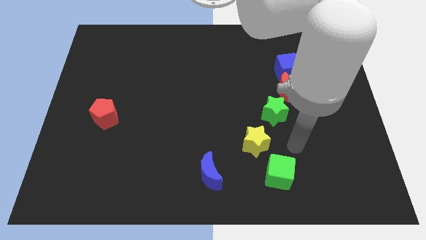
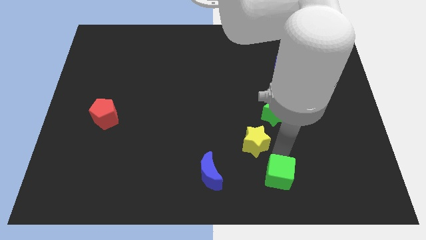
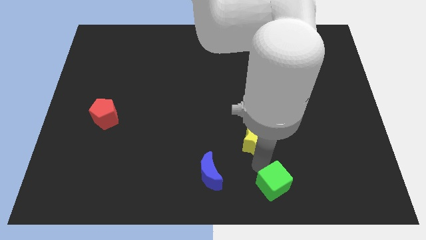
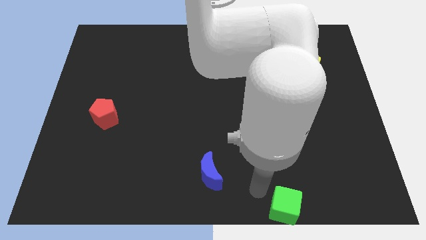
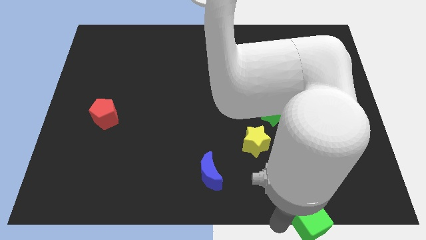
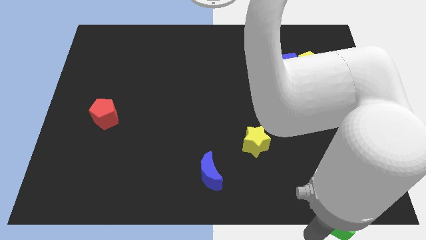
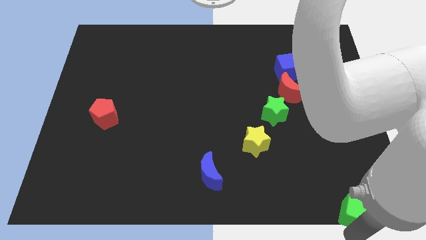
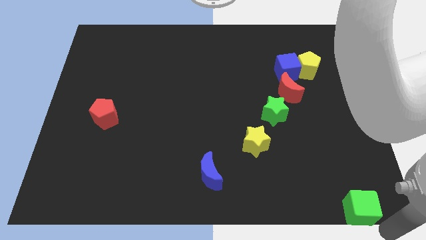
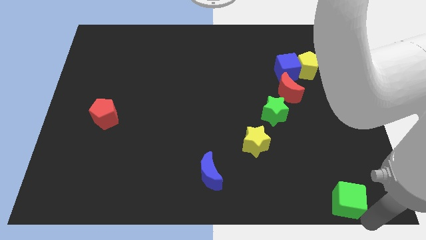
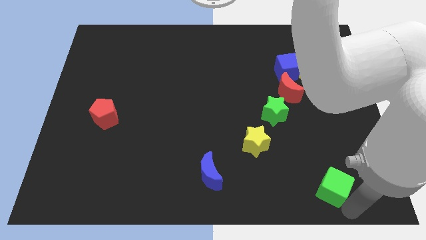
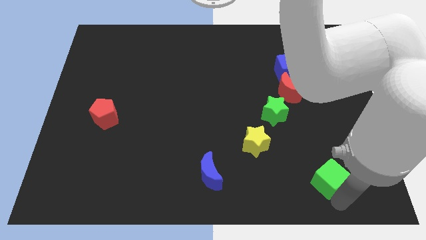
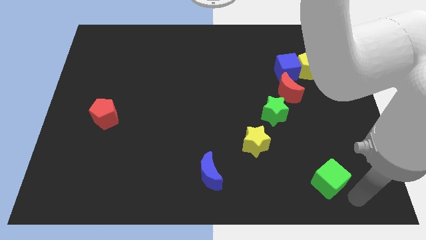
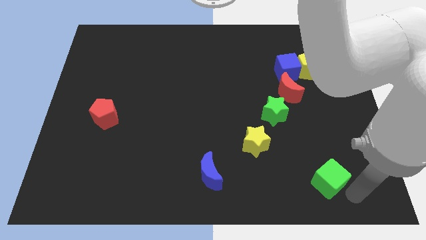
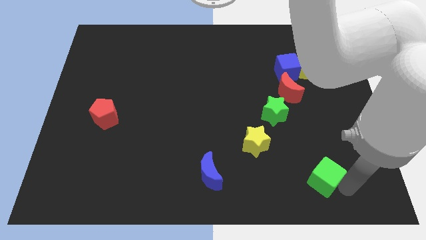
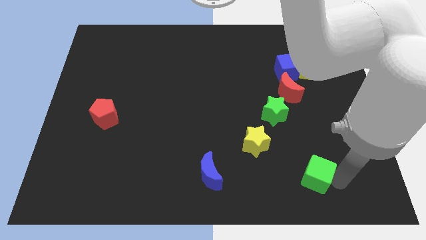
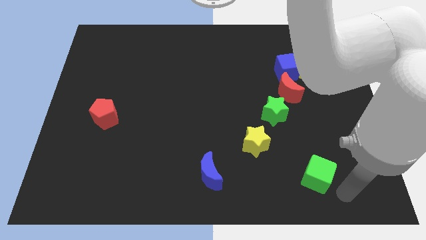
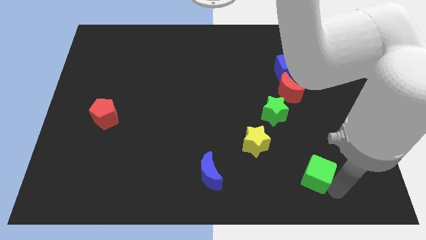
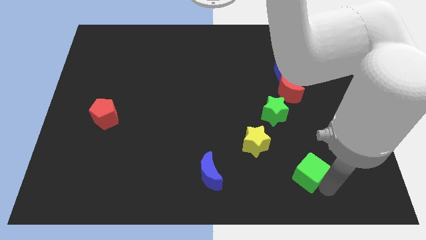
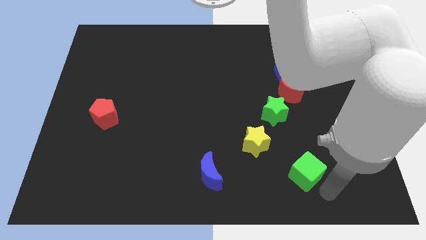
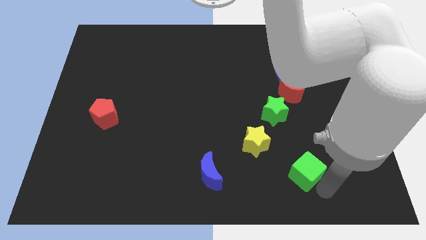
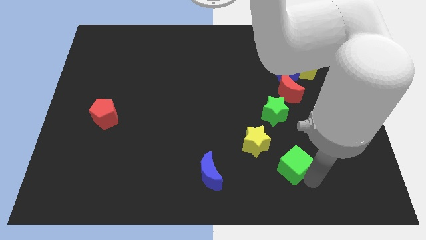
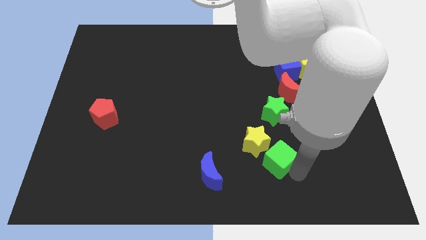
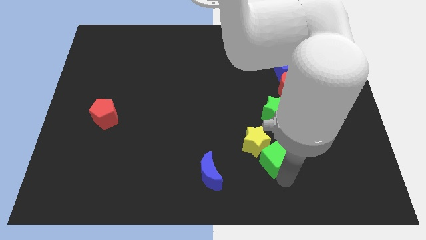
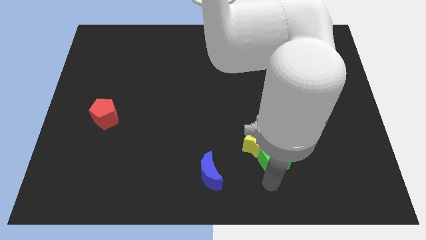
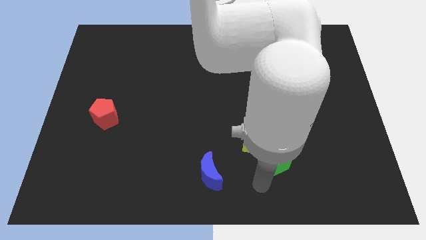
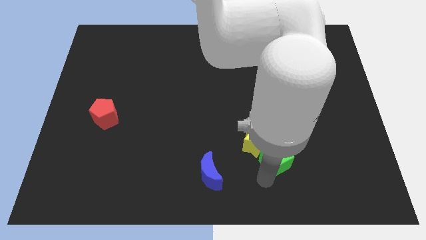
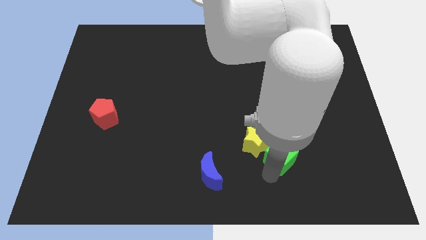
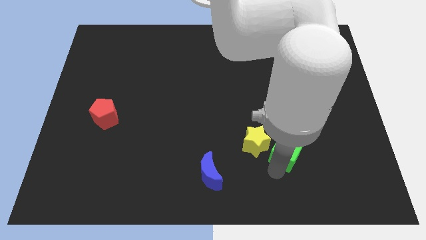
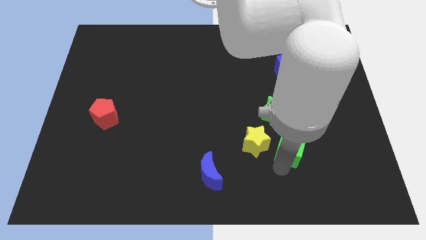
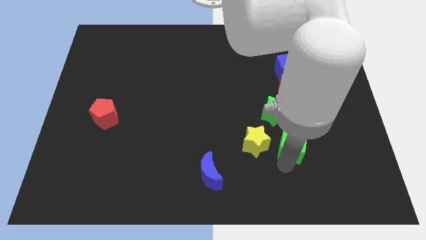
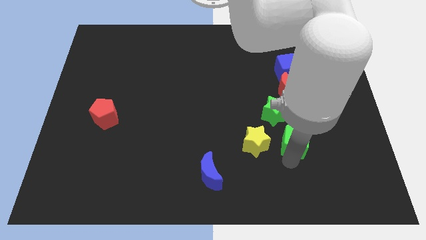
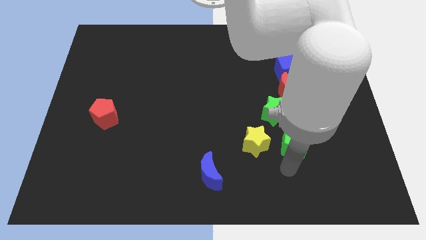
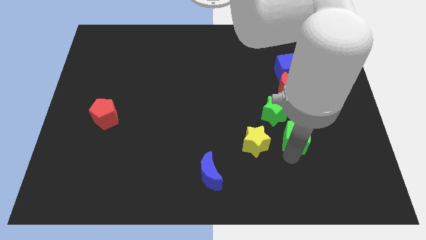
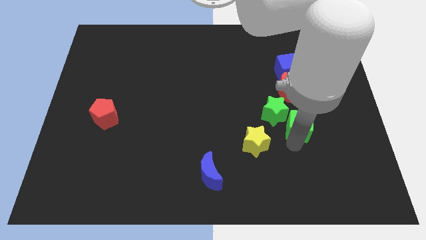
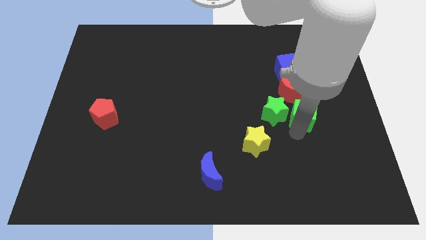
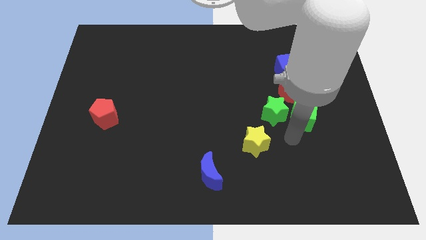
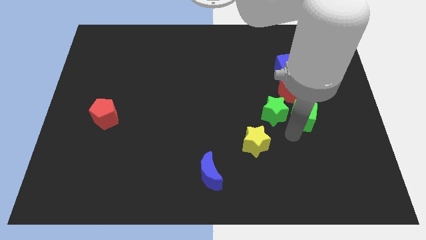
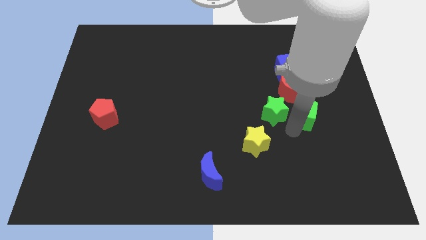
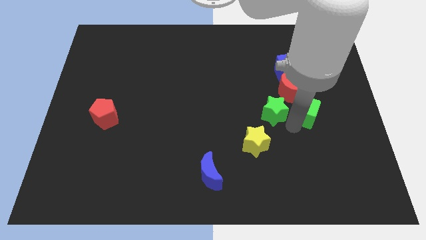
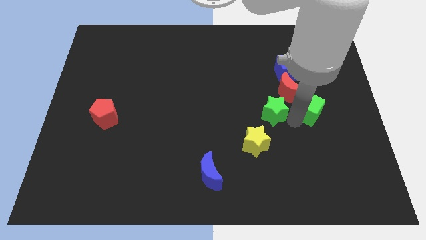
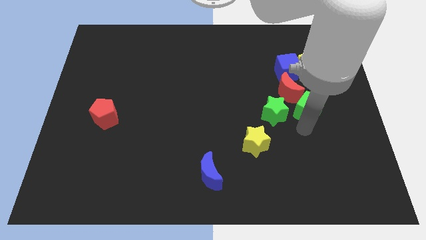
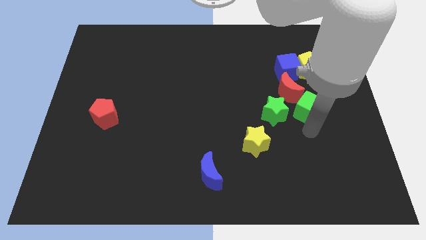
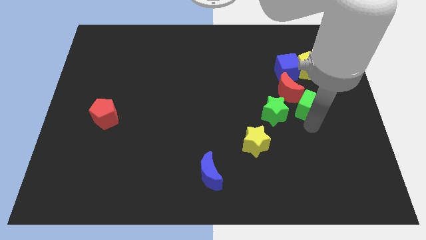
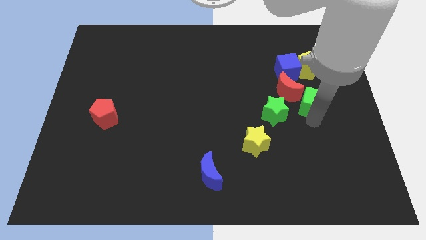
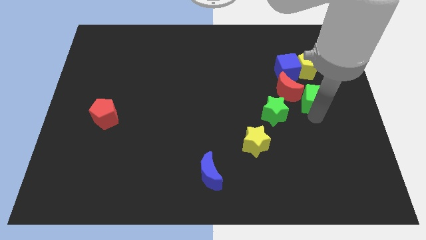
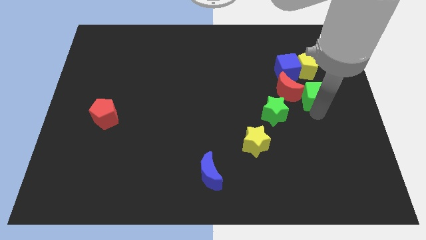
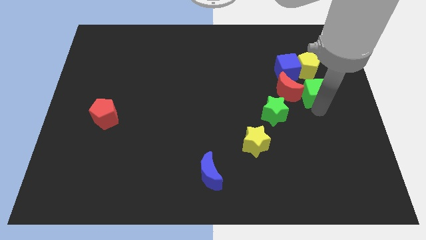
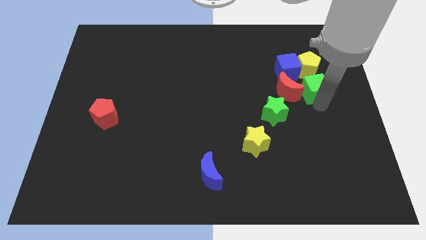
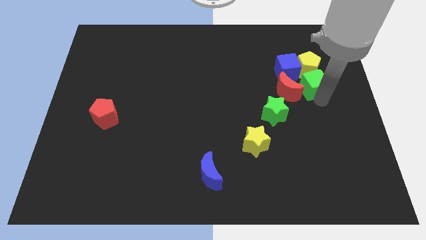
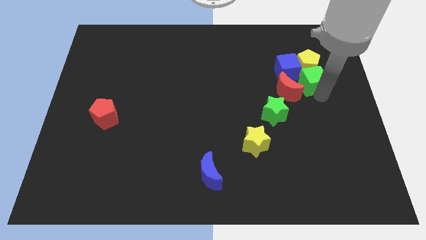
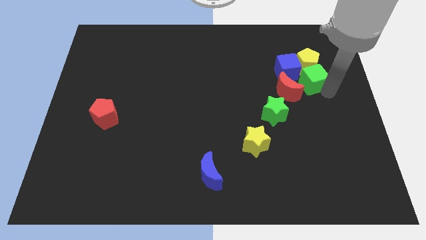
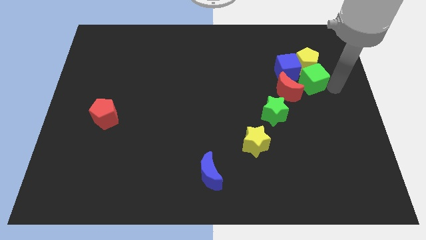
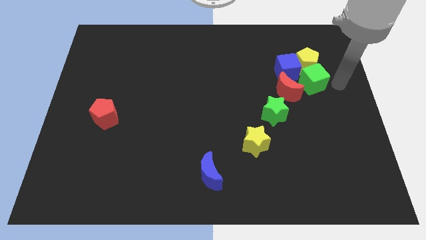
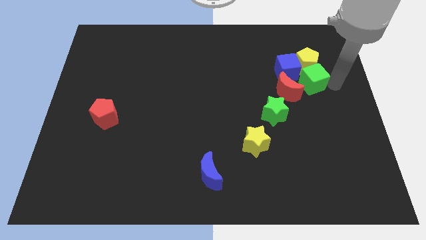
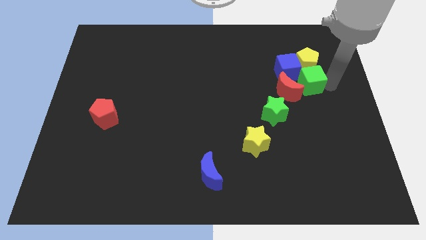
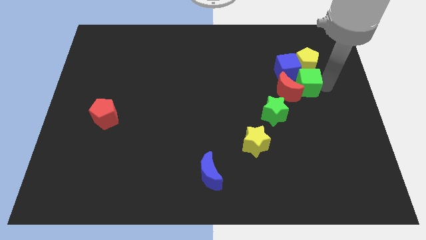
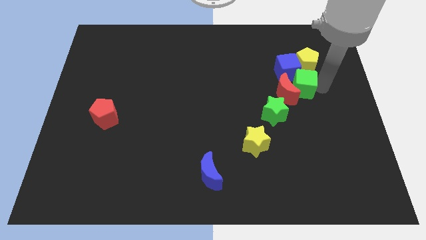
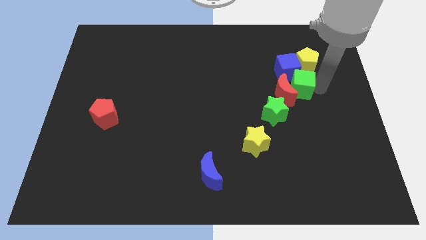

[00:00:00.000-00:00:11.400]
slide the green cube next to the blue cube
